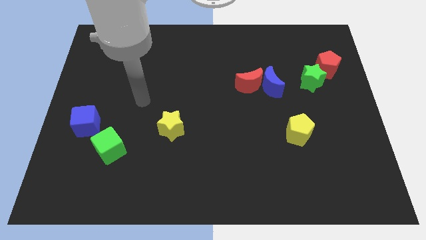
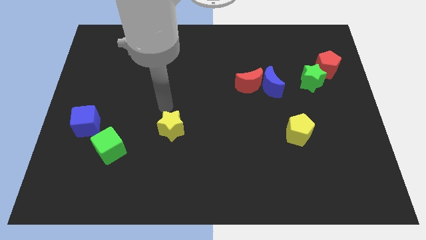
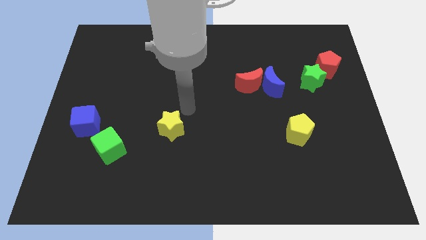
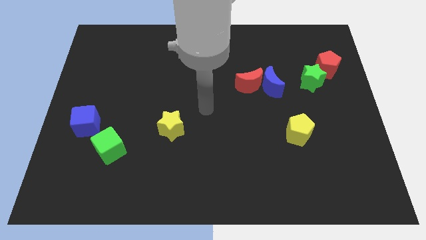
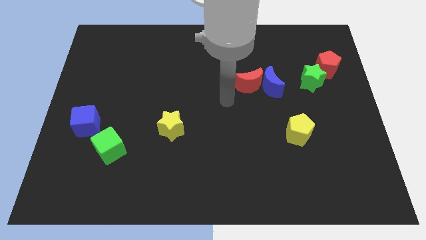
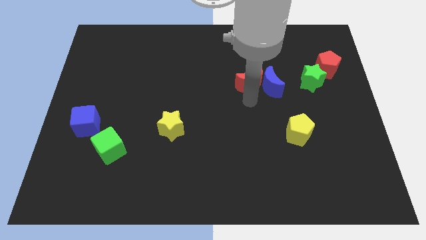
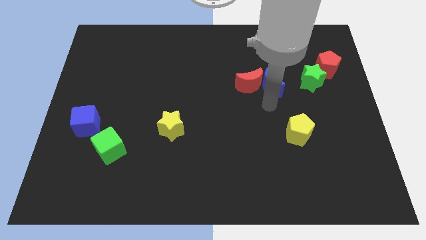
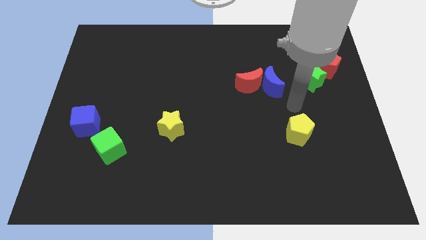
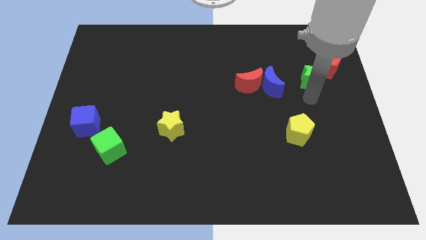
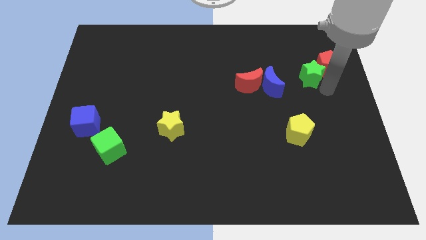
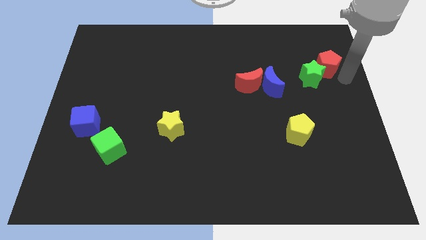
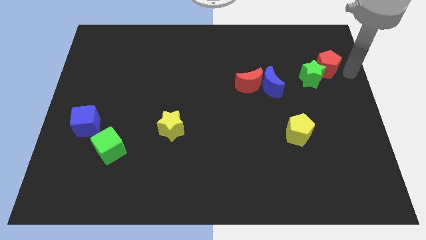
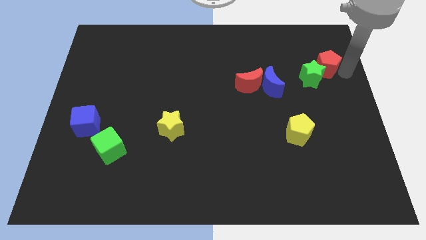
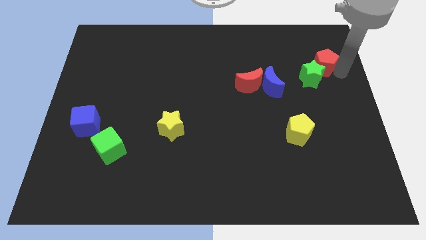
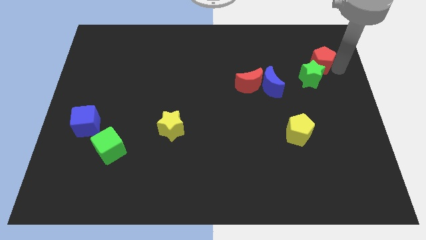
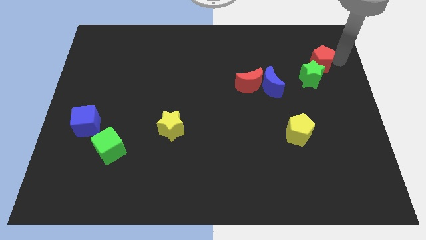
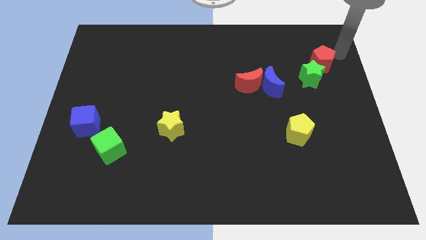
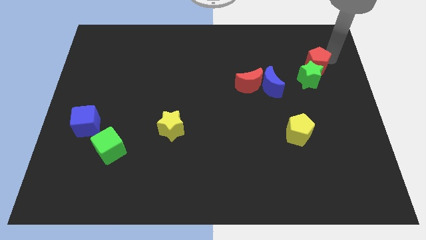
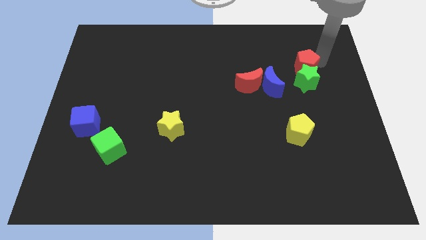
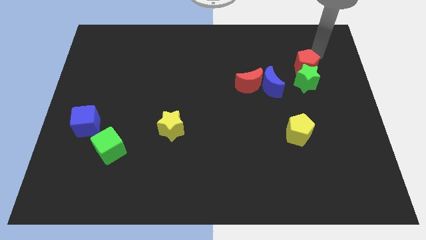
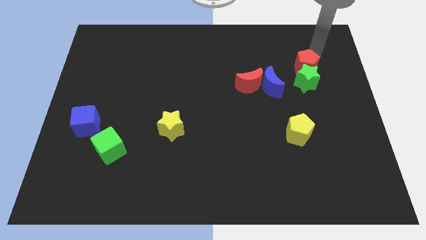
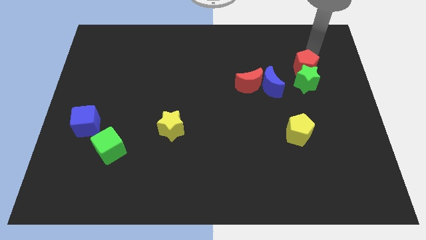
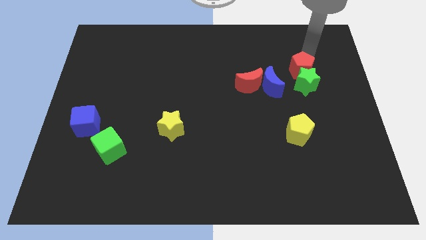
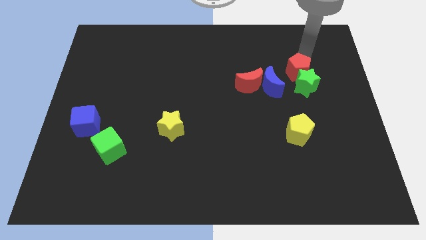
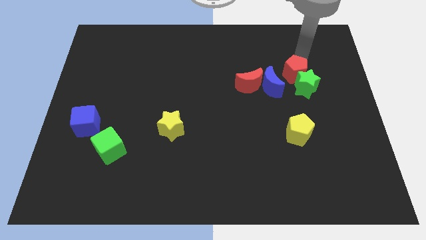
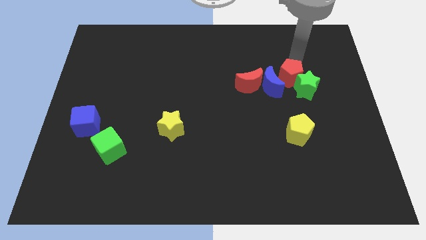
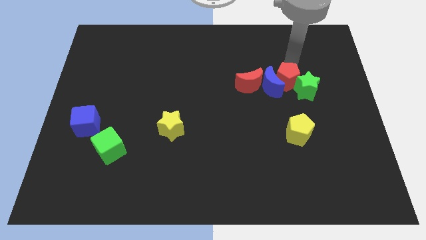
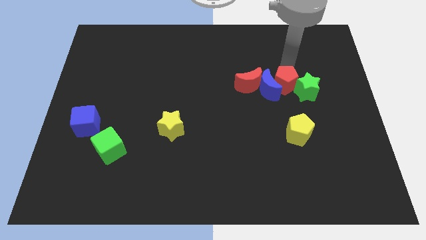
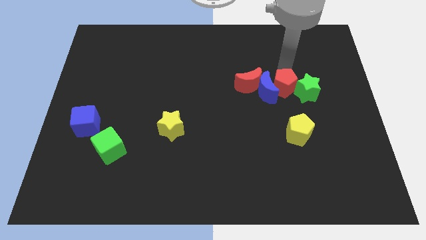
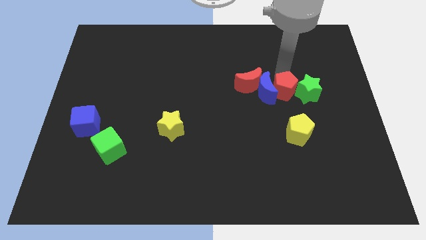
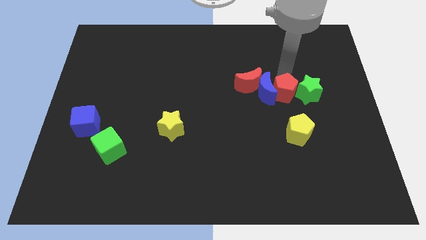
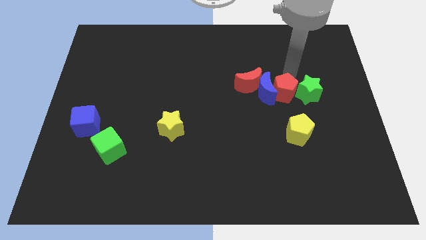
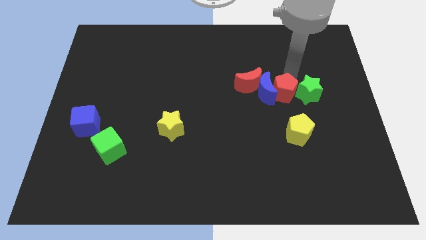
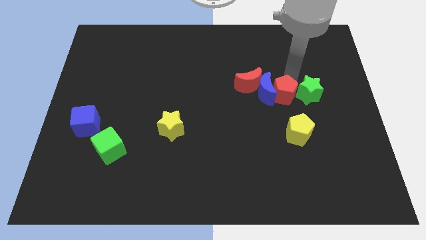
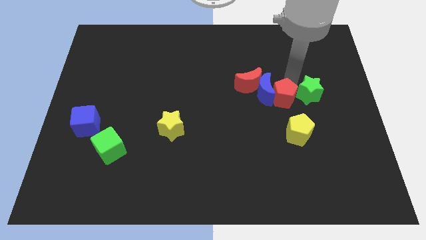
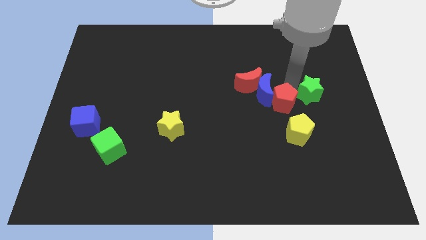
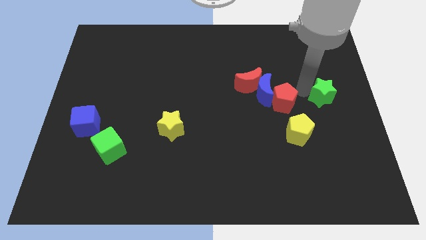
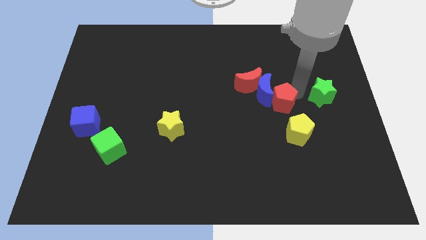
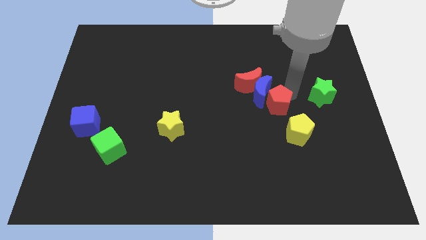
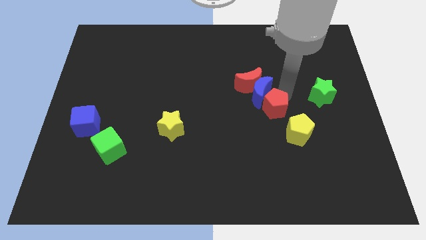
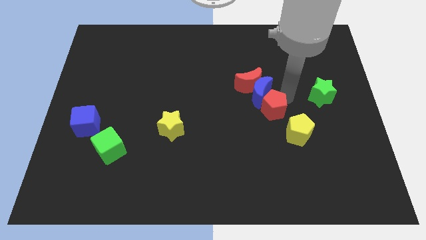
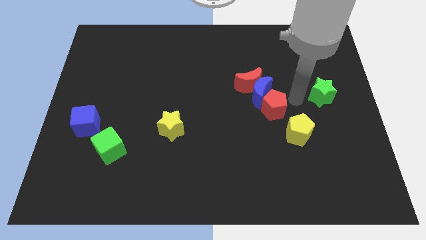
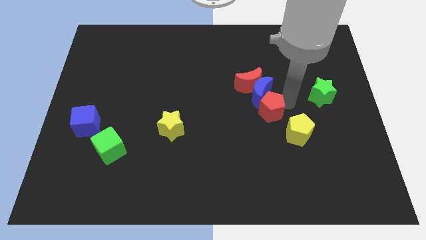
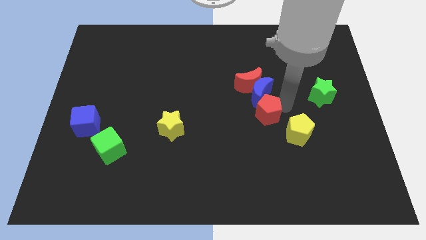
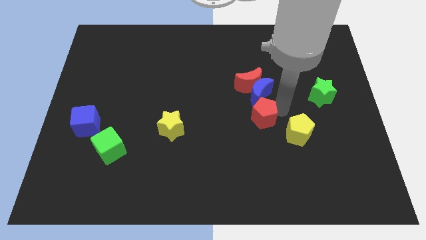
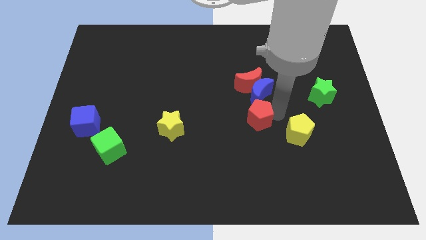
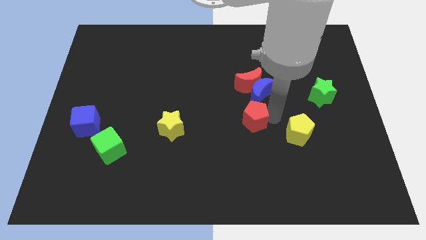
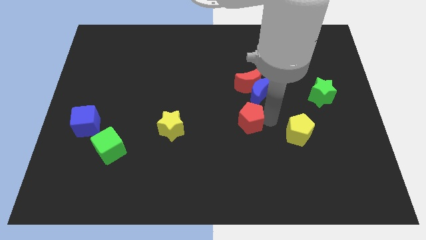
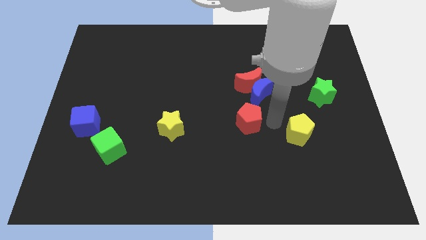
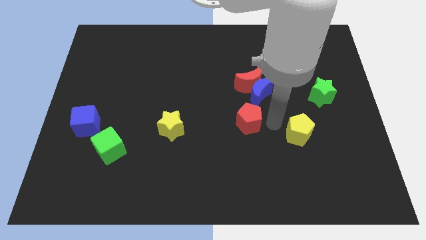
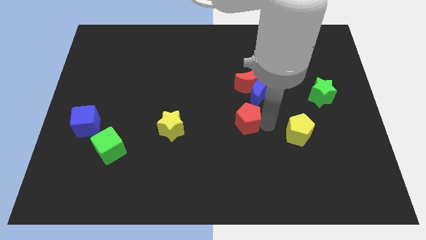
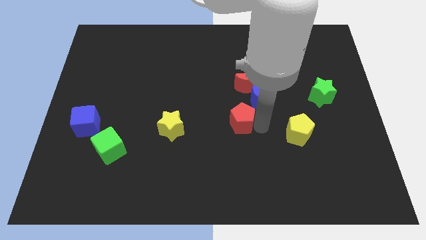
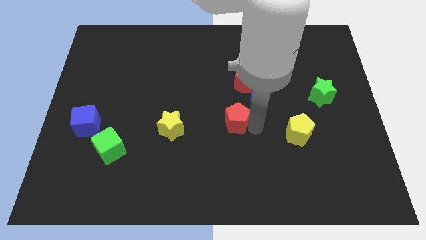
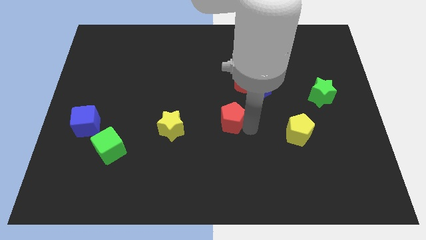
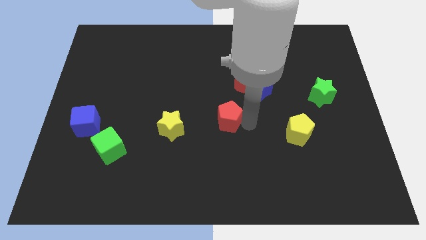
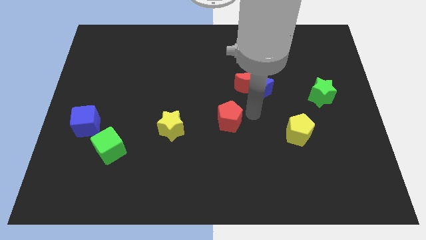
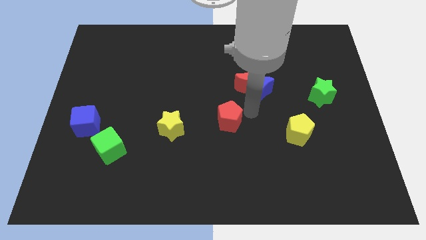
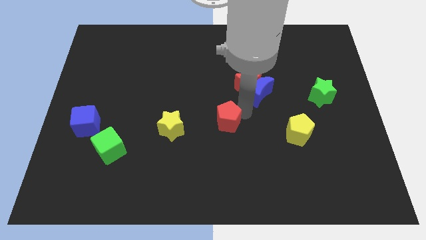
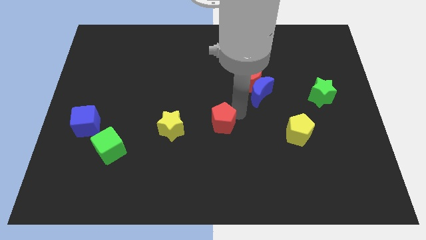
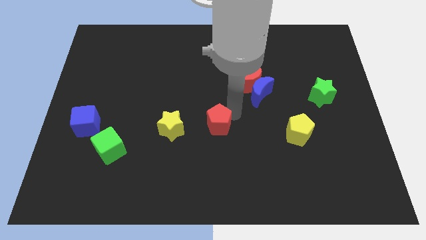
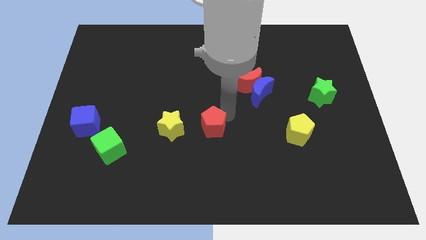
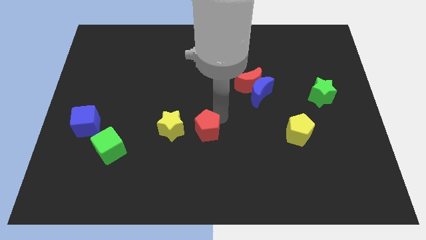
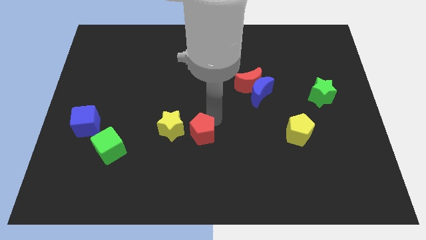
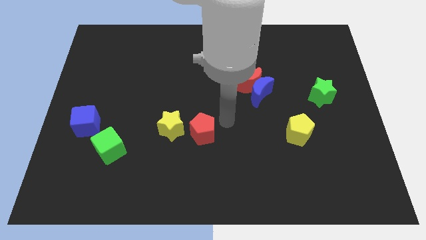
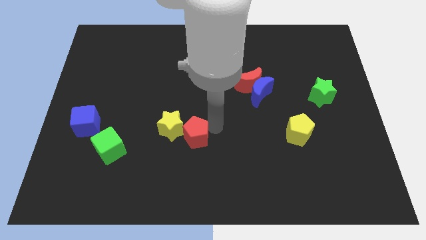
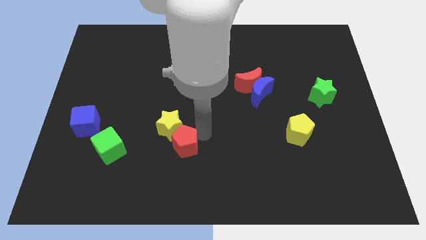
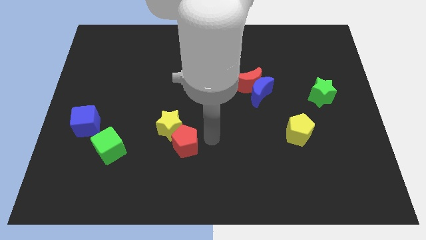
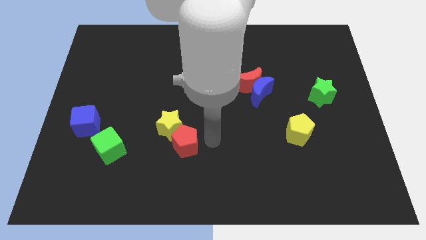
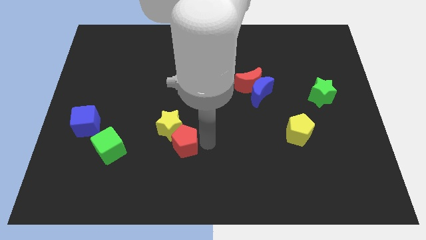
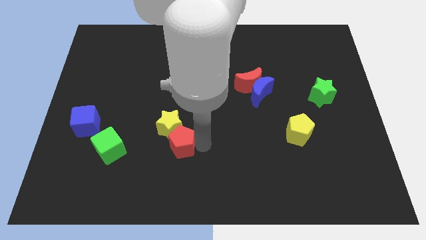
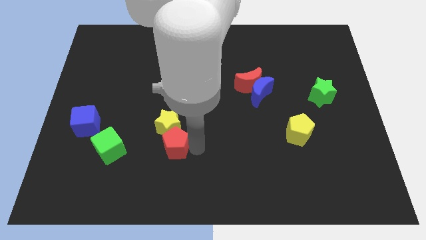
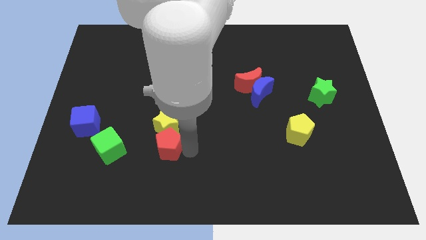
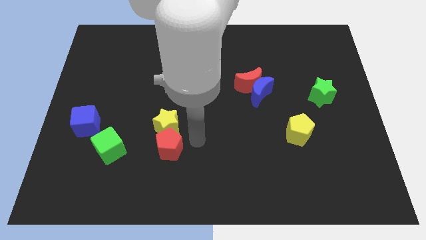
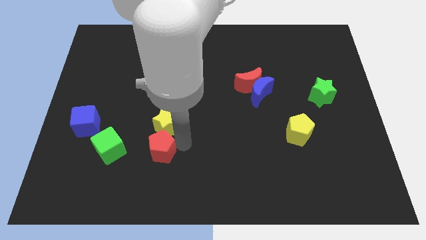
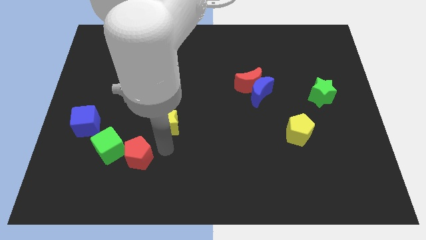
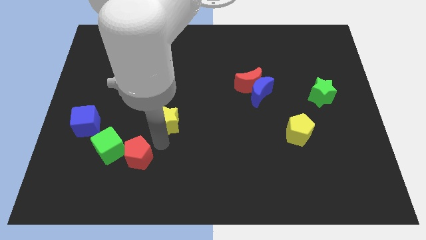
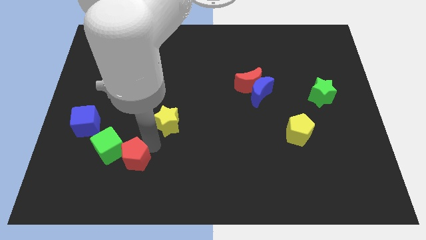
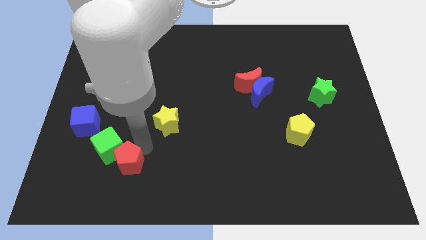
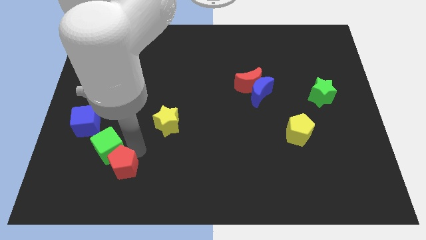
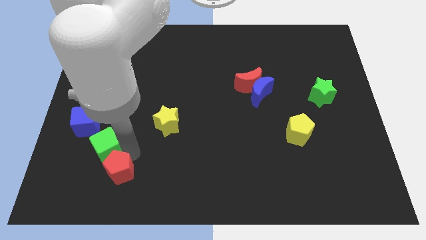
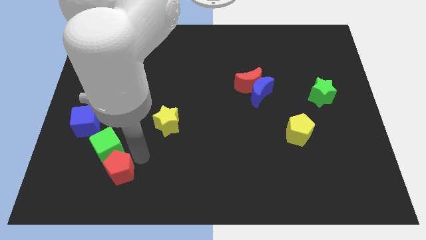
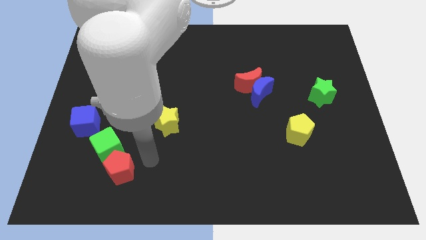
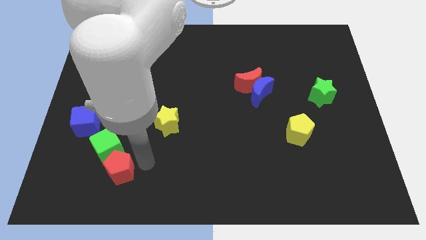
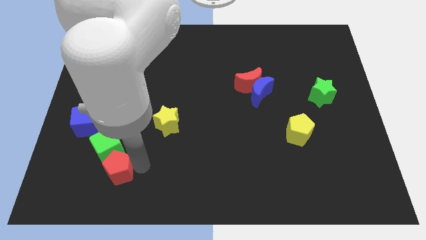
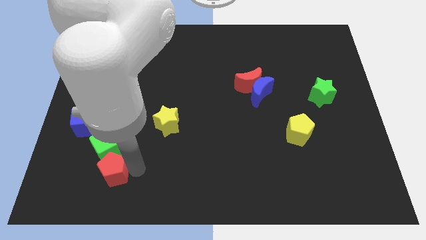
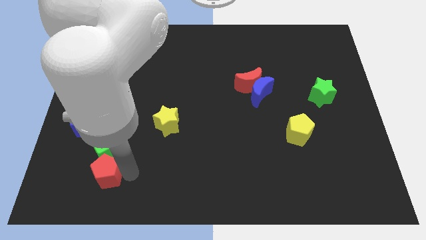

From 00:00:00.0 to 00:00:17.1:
put the red pentagon to the bottom left of the green cube
